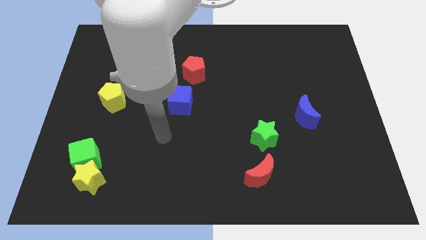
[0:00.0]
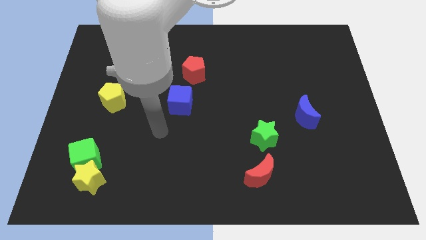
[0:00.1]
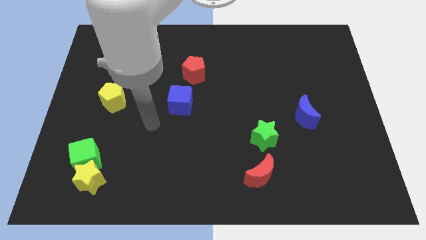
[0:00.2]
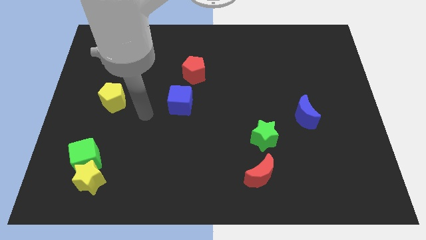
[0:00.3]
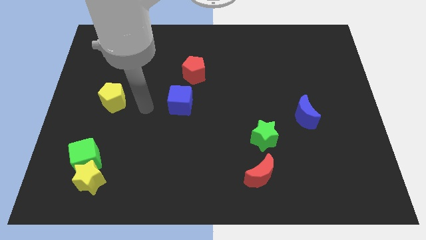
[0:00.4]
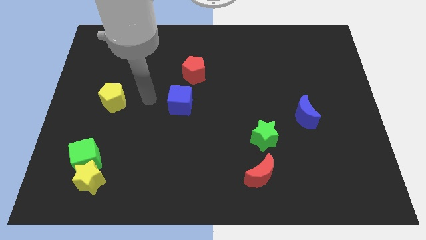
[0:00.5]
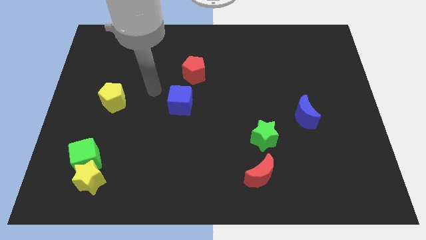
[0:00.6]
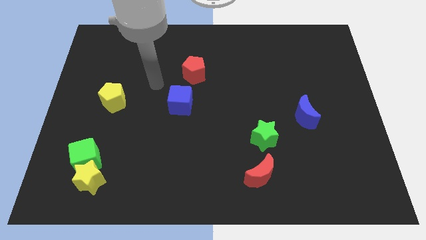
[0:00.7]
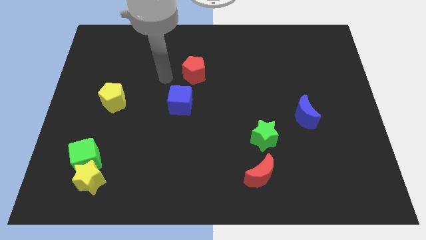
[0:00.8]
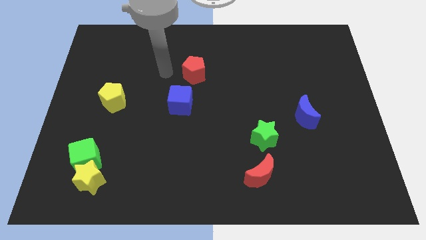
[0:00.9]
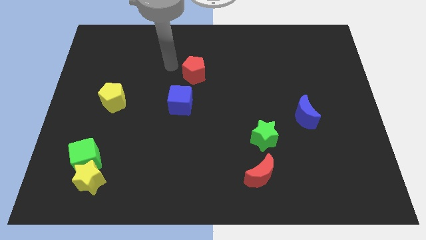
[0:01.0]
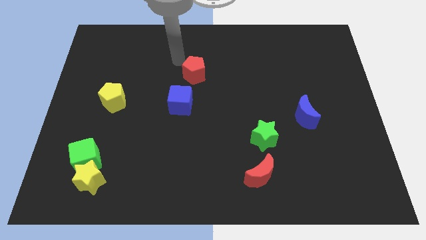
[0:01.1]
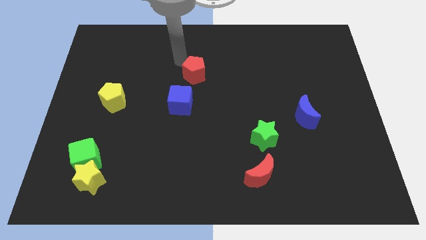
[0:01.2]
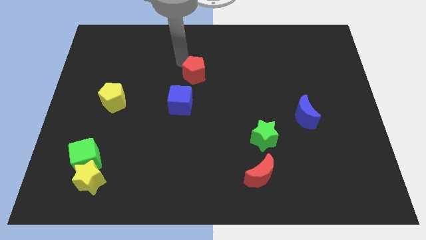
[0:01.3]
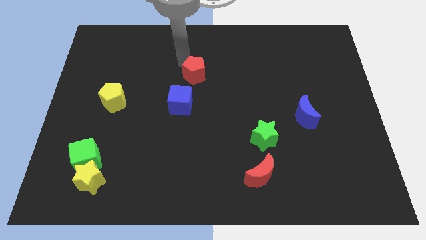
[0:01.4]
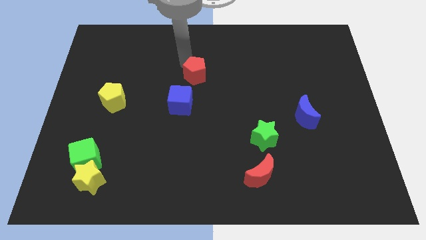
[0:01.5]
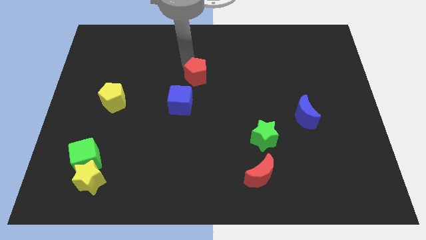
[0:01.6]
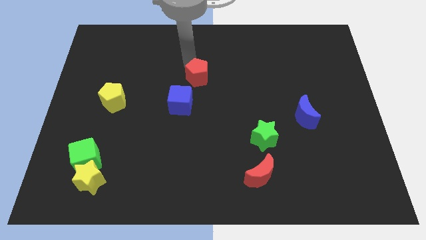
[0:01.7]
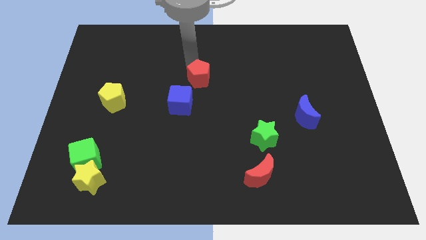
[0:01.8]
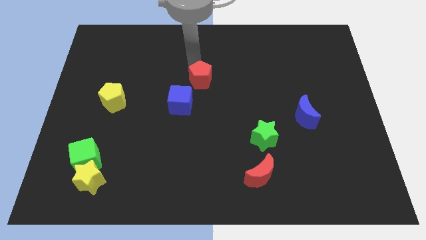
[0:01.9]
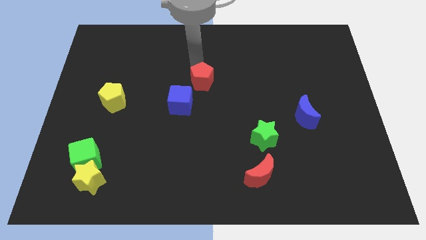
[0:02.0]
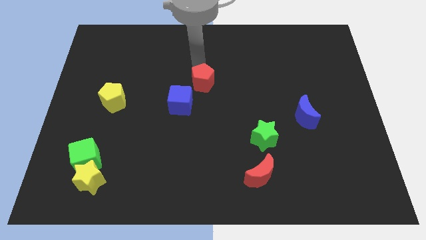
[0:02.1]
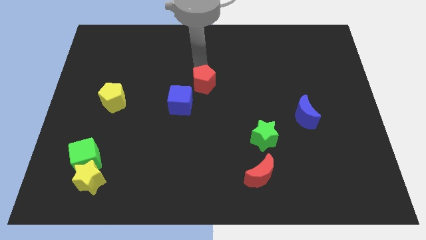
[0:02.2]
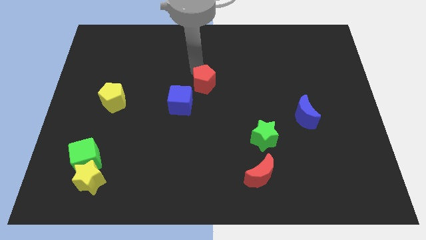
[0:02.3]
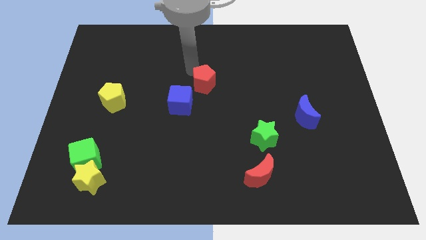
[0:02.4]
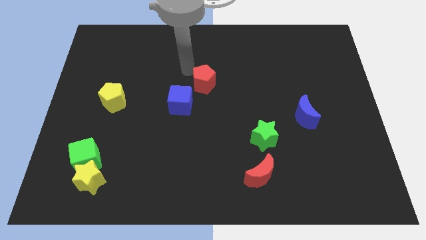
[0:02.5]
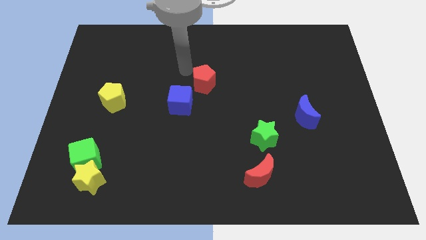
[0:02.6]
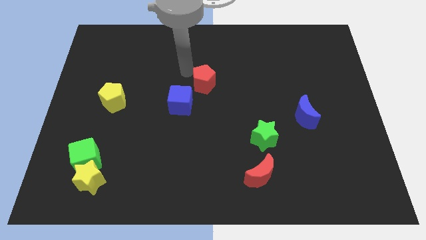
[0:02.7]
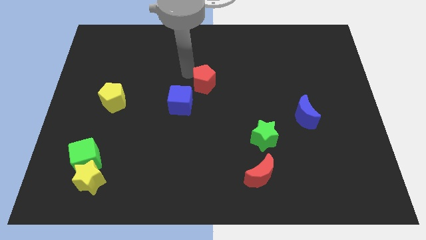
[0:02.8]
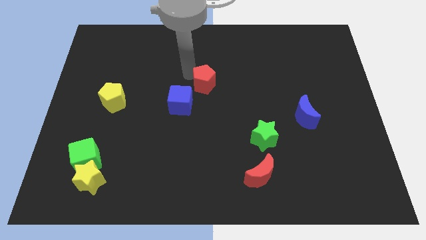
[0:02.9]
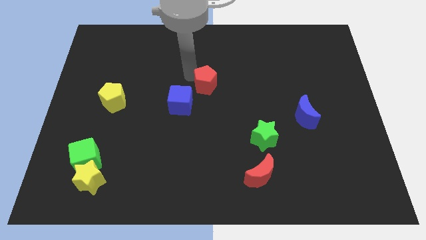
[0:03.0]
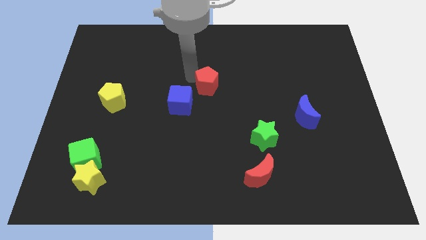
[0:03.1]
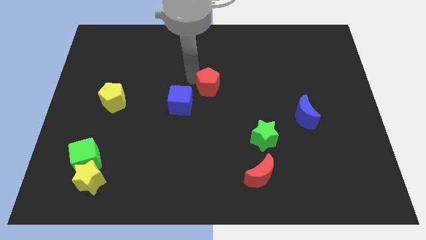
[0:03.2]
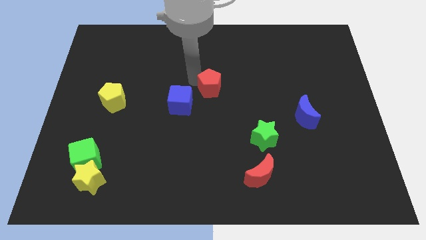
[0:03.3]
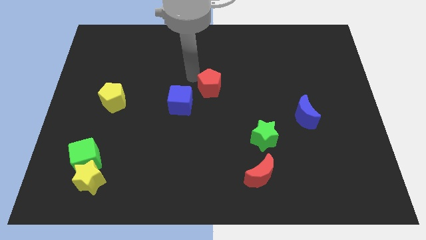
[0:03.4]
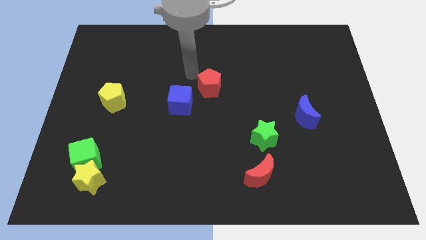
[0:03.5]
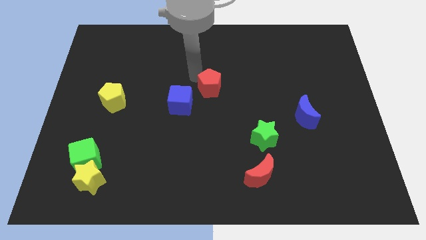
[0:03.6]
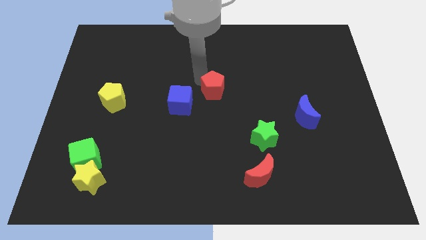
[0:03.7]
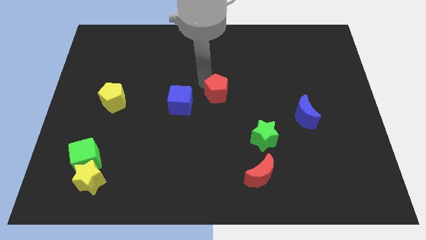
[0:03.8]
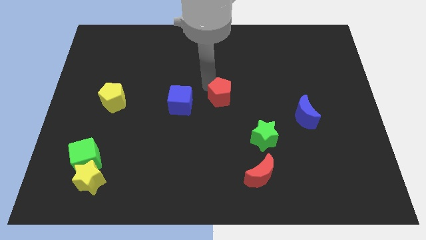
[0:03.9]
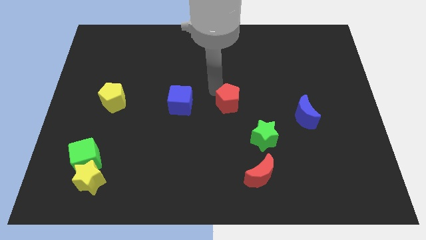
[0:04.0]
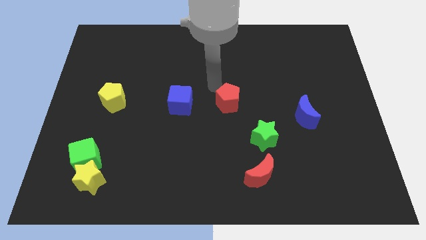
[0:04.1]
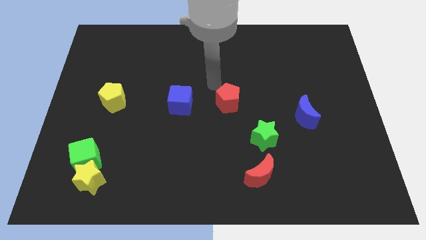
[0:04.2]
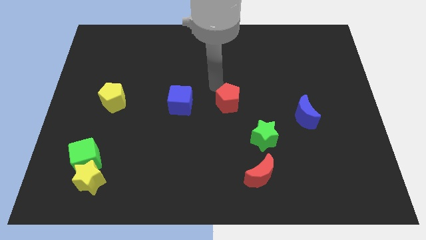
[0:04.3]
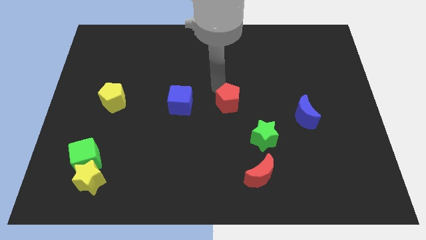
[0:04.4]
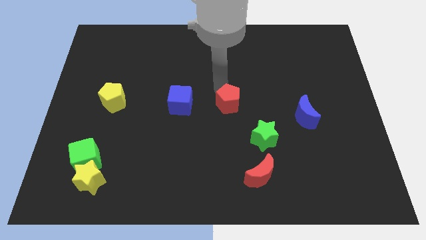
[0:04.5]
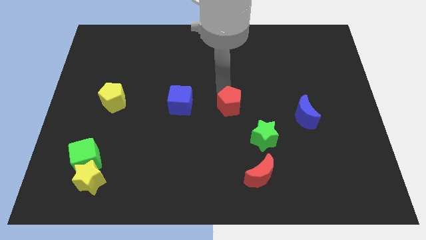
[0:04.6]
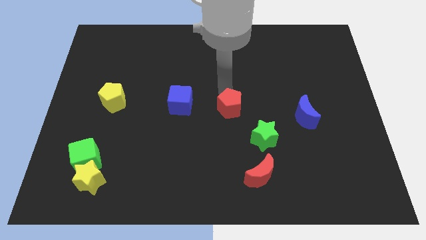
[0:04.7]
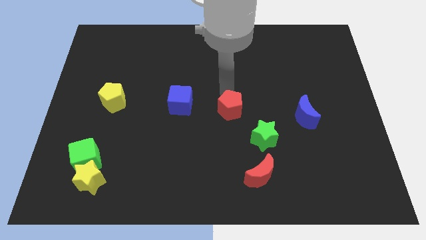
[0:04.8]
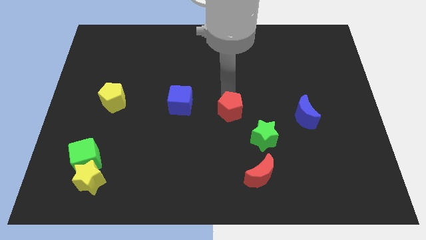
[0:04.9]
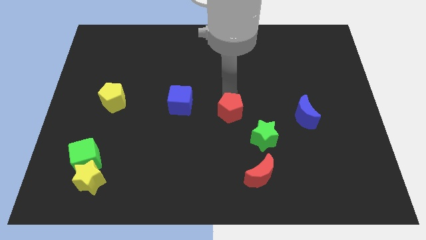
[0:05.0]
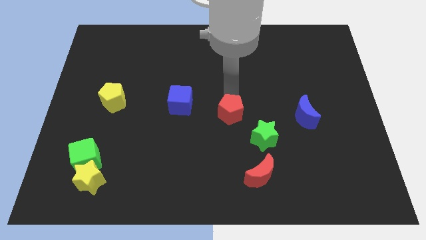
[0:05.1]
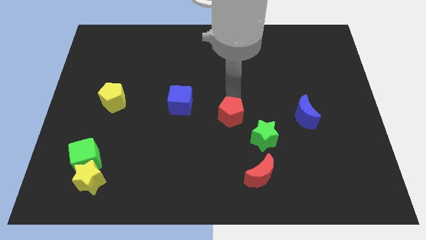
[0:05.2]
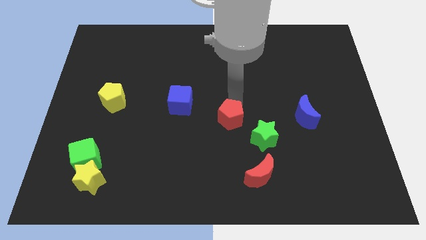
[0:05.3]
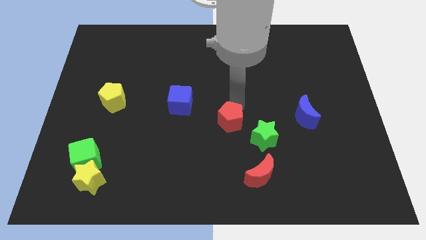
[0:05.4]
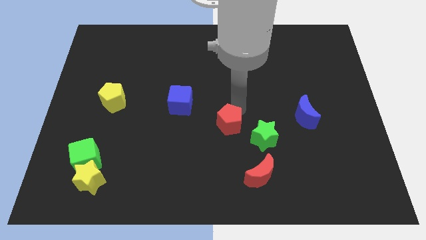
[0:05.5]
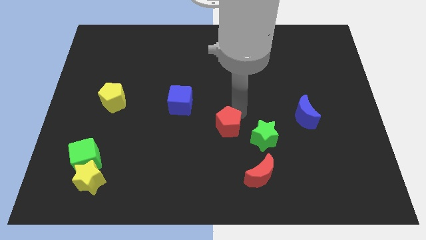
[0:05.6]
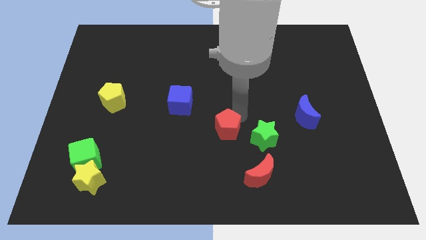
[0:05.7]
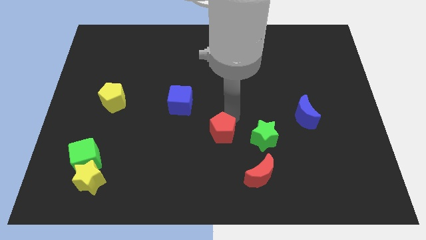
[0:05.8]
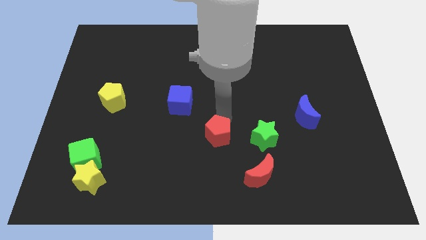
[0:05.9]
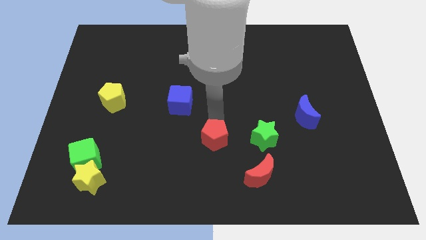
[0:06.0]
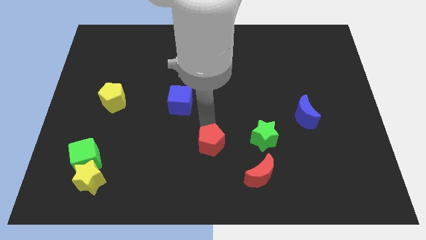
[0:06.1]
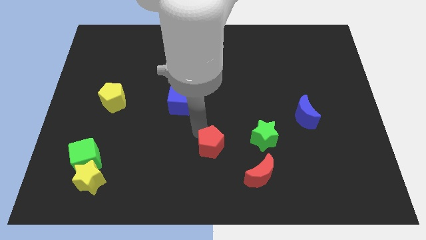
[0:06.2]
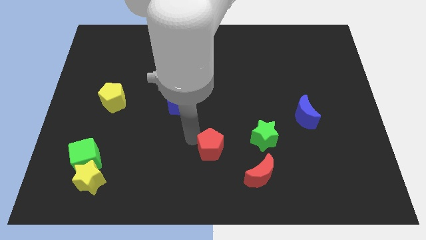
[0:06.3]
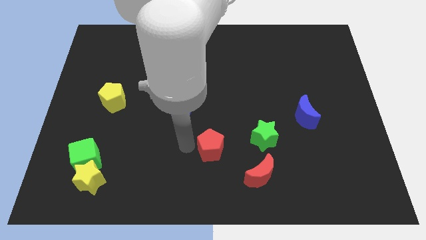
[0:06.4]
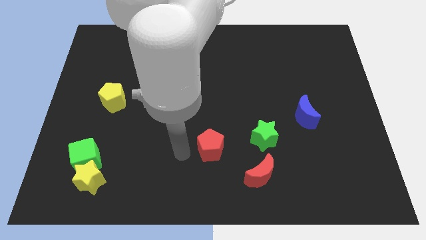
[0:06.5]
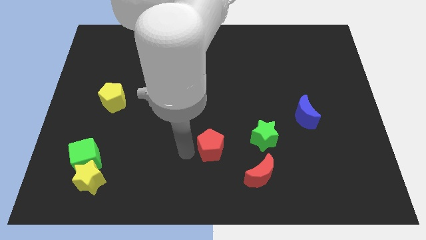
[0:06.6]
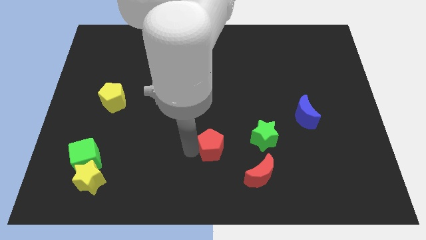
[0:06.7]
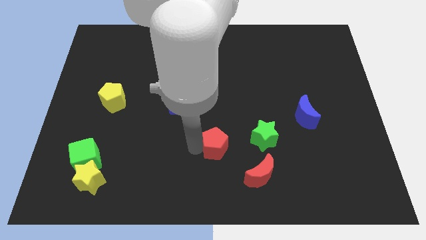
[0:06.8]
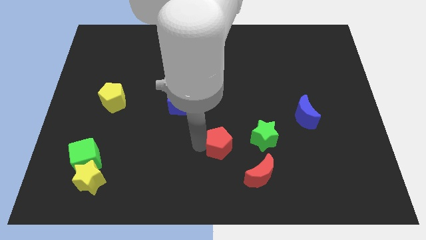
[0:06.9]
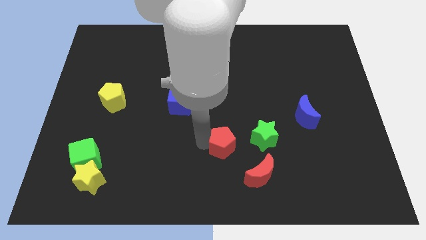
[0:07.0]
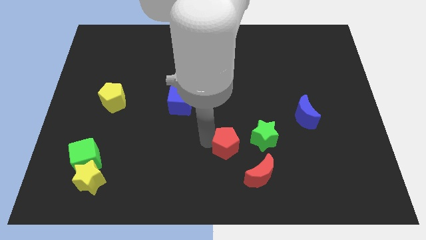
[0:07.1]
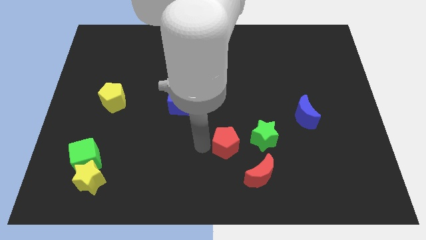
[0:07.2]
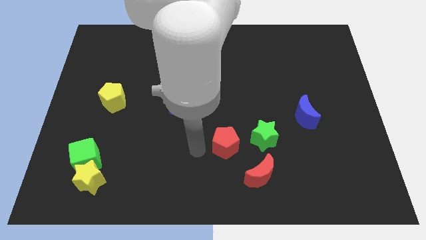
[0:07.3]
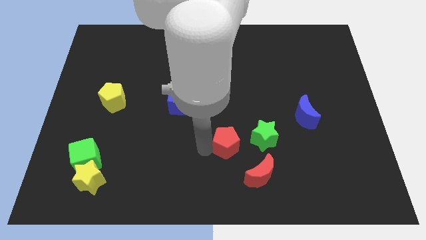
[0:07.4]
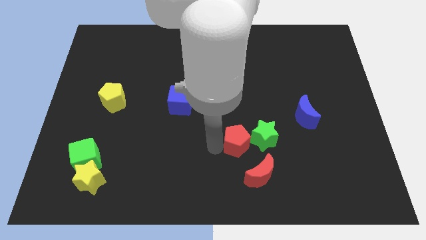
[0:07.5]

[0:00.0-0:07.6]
put the red pentagon towards the green star
